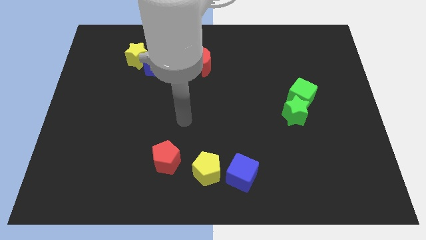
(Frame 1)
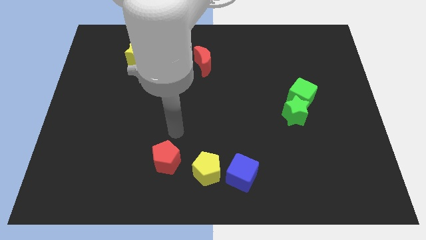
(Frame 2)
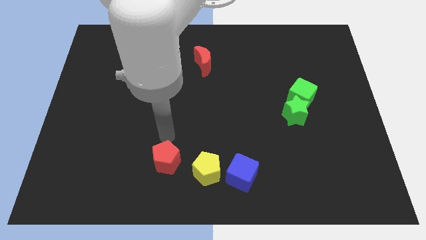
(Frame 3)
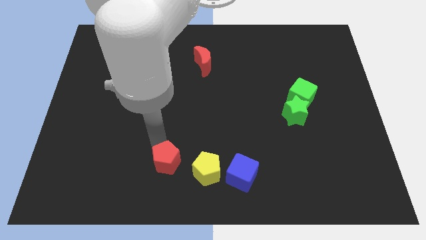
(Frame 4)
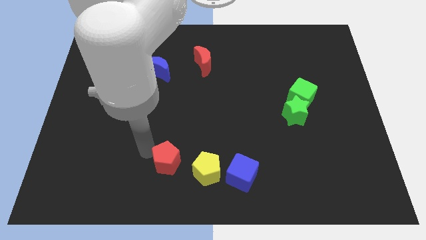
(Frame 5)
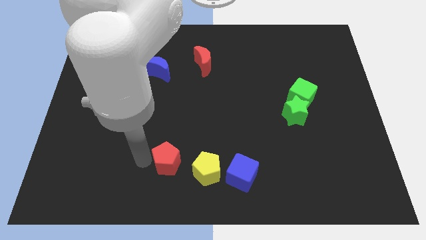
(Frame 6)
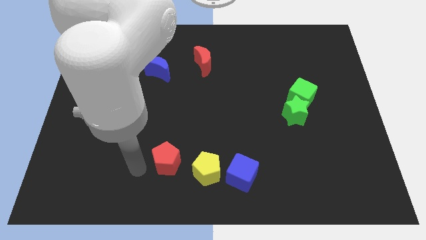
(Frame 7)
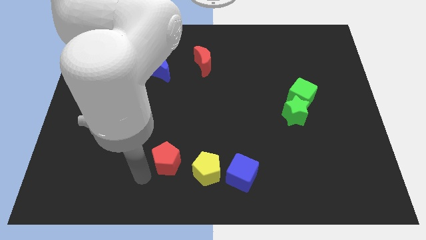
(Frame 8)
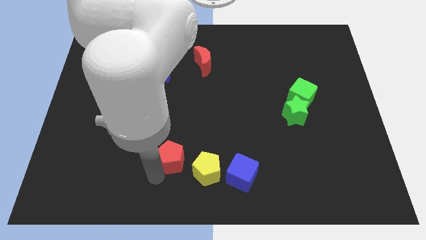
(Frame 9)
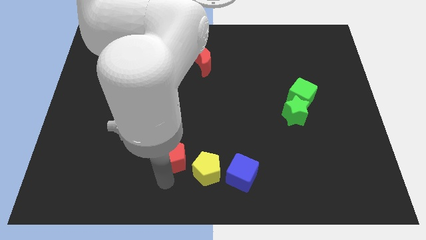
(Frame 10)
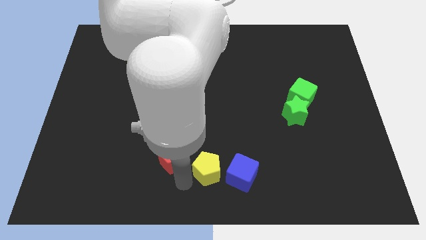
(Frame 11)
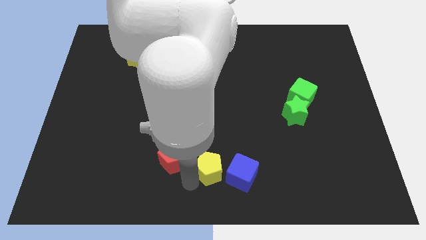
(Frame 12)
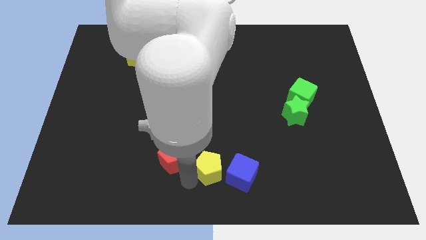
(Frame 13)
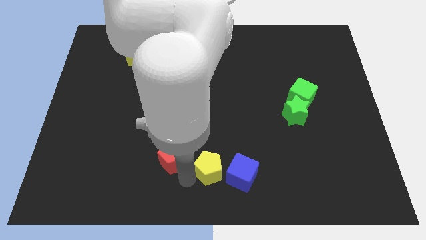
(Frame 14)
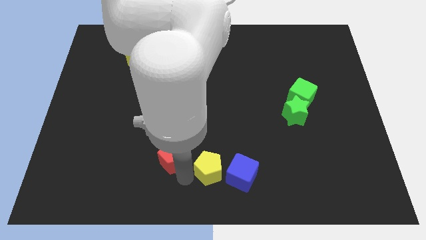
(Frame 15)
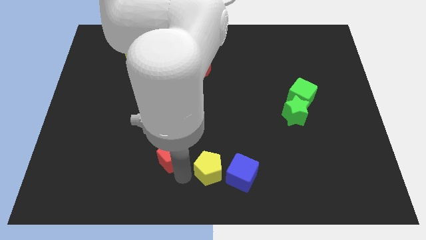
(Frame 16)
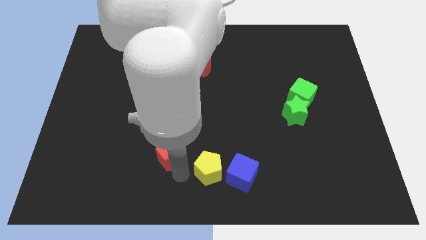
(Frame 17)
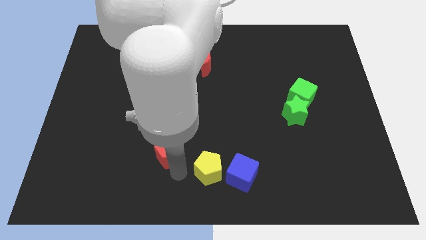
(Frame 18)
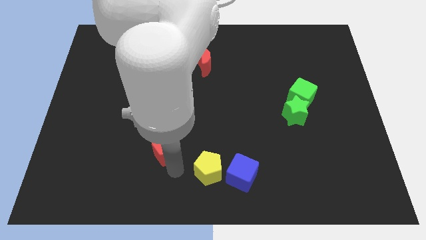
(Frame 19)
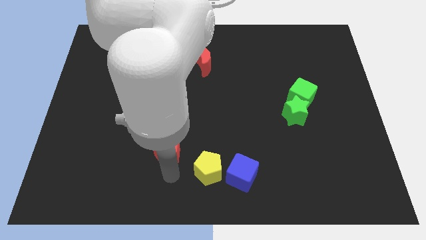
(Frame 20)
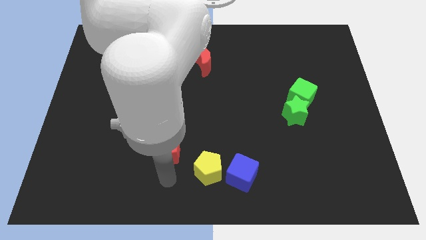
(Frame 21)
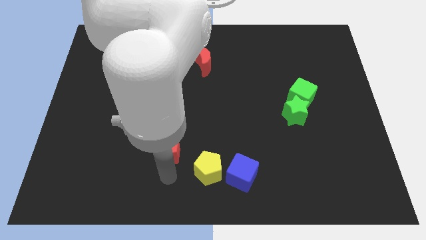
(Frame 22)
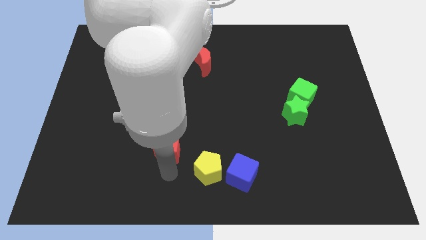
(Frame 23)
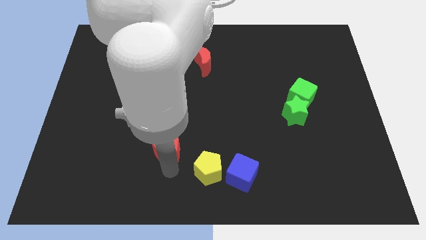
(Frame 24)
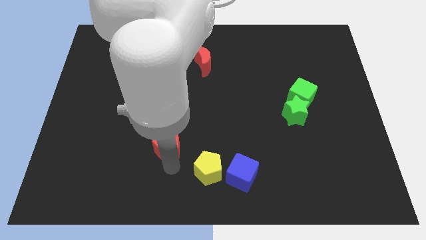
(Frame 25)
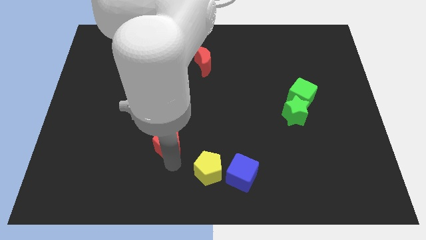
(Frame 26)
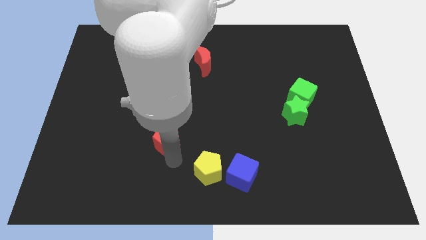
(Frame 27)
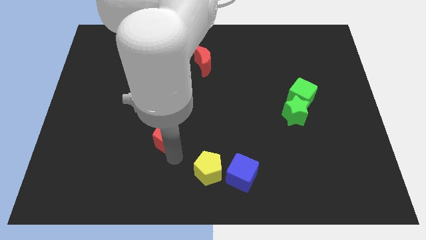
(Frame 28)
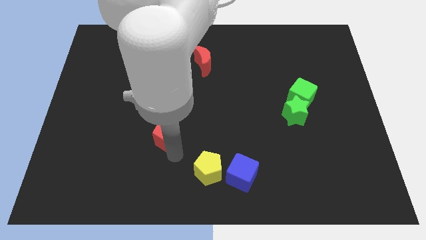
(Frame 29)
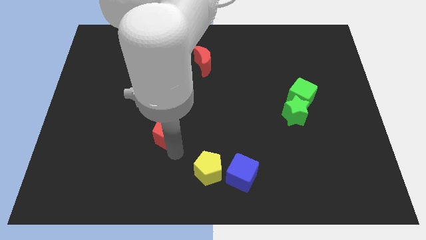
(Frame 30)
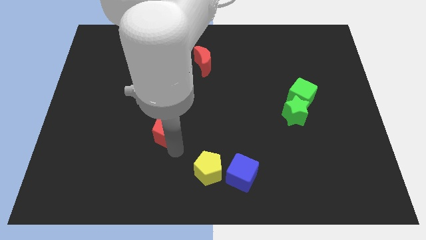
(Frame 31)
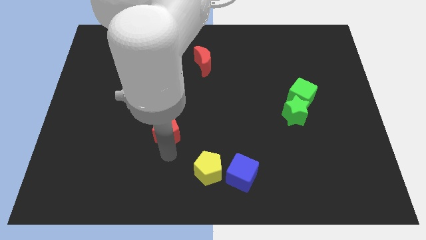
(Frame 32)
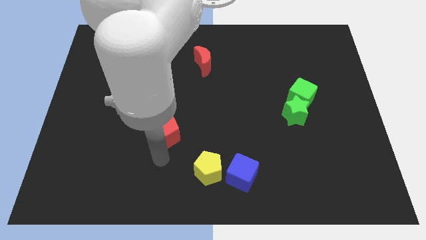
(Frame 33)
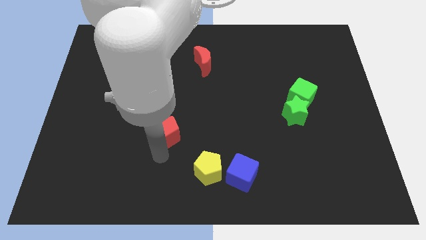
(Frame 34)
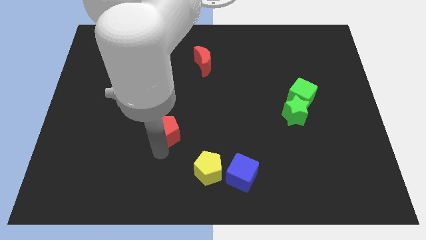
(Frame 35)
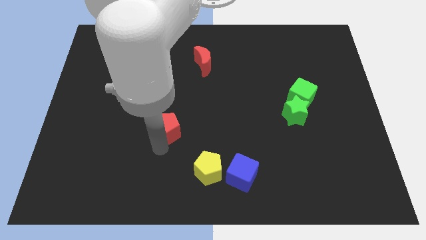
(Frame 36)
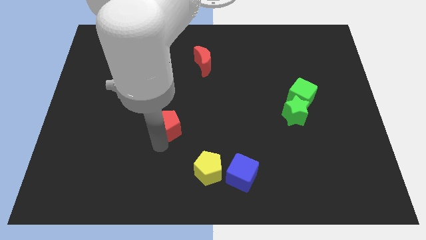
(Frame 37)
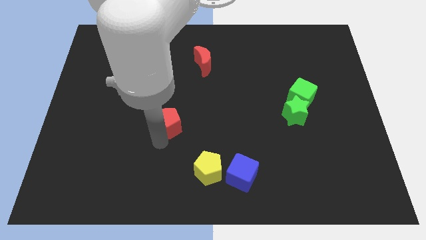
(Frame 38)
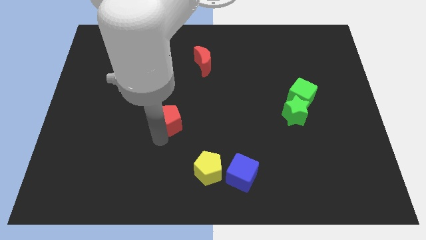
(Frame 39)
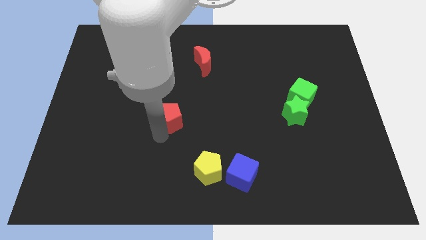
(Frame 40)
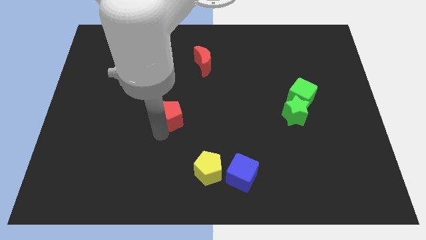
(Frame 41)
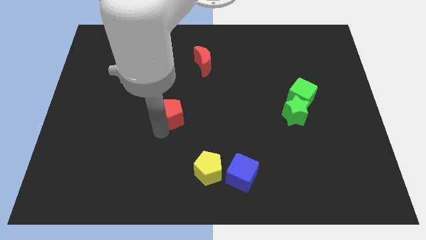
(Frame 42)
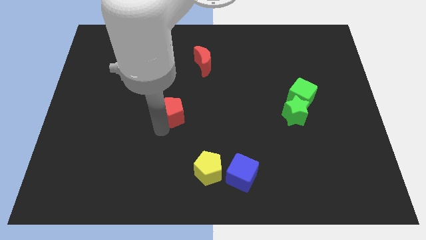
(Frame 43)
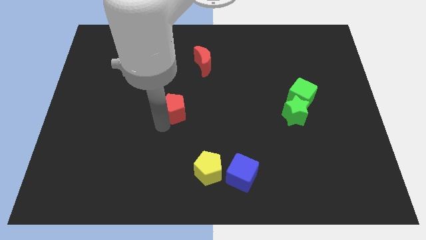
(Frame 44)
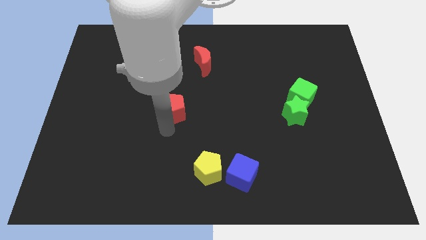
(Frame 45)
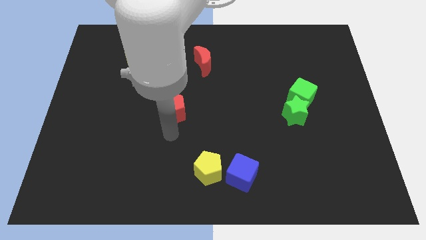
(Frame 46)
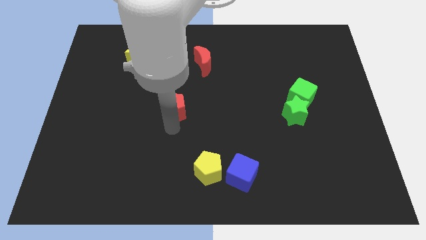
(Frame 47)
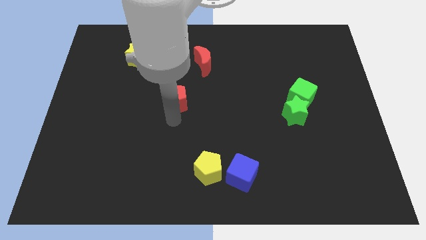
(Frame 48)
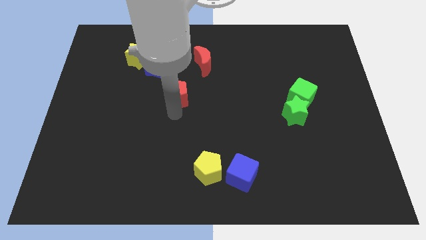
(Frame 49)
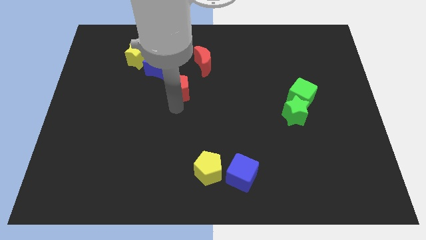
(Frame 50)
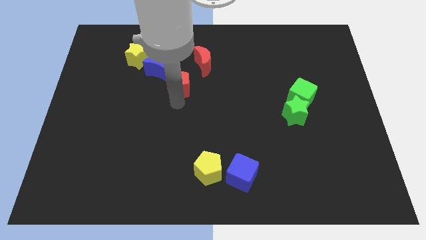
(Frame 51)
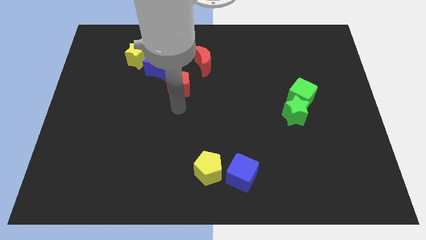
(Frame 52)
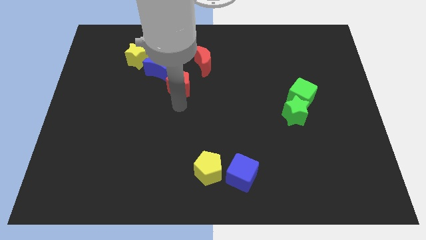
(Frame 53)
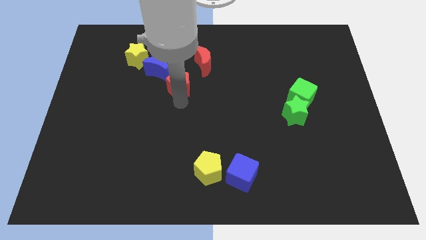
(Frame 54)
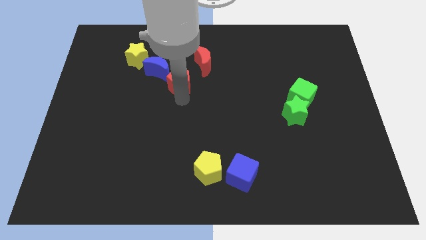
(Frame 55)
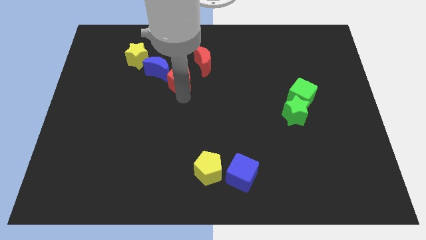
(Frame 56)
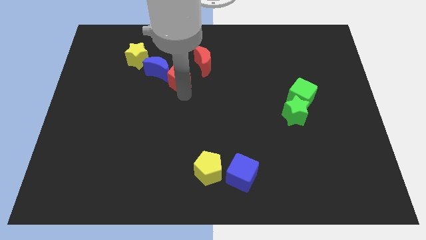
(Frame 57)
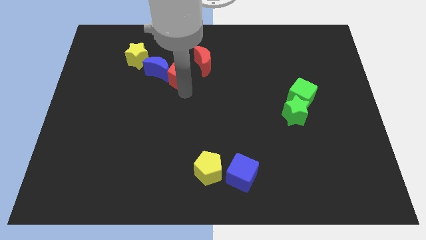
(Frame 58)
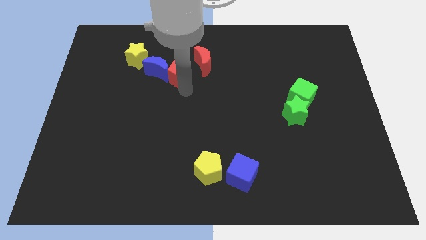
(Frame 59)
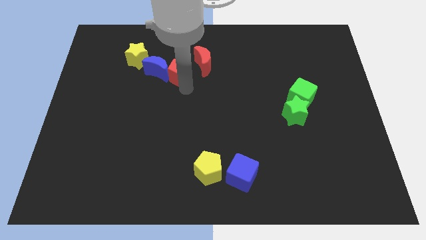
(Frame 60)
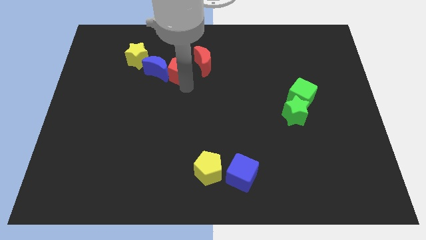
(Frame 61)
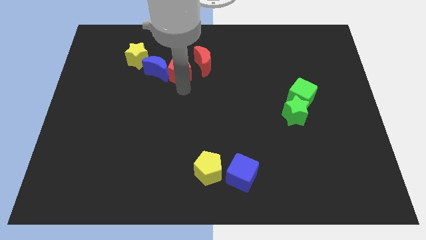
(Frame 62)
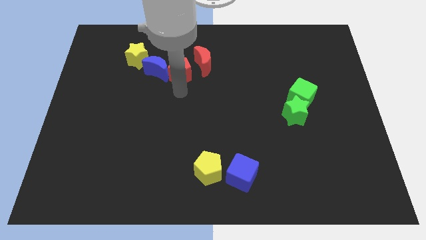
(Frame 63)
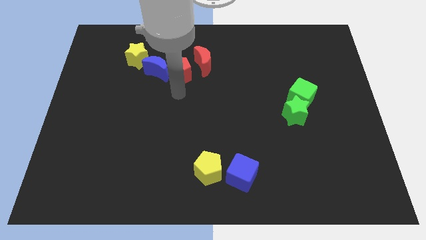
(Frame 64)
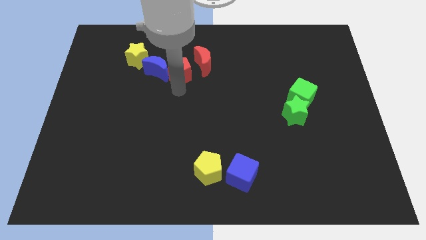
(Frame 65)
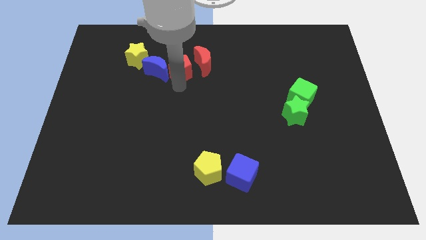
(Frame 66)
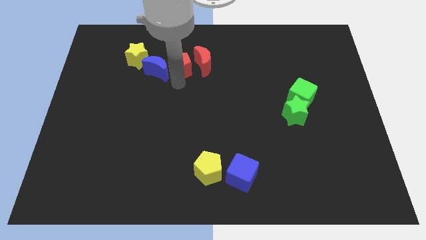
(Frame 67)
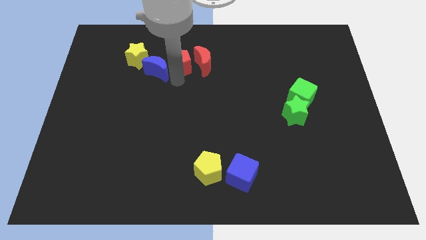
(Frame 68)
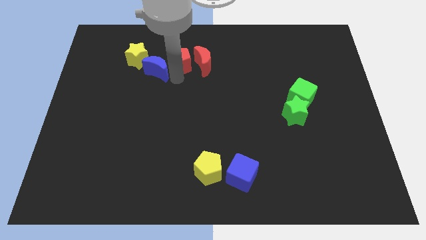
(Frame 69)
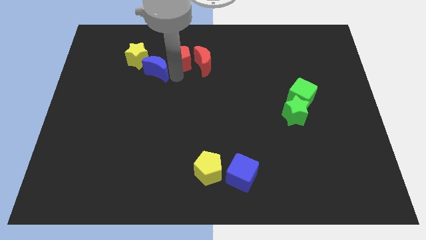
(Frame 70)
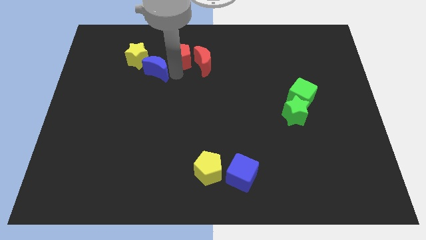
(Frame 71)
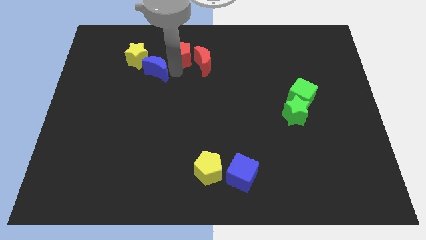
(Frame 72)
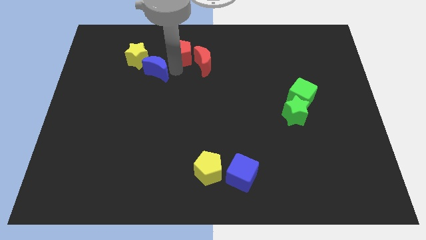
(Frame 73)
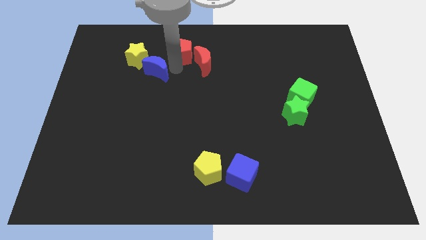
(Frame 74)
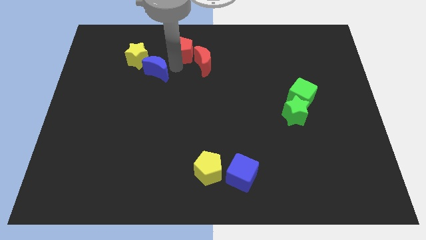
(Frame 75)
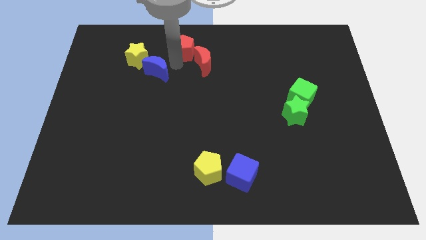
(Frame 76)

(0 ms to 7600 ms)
move the red pentagon to the towards your base
